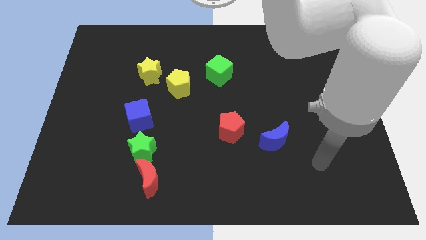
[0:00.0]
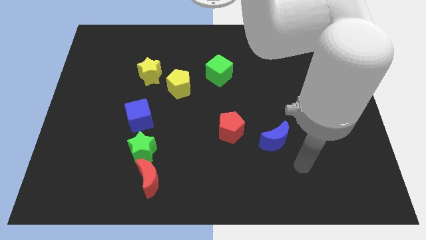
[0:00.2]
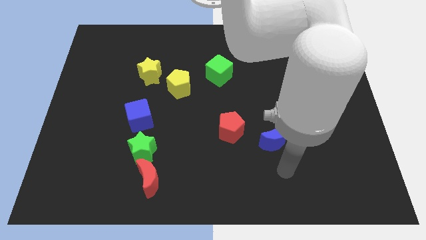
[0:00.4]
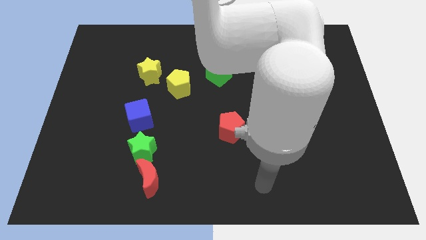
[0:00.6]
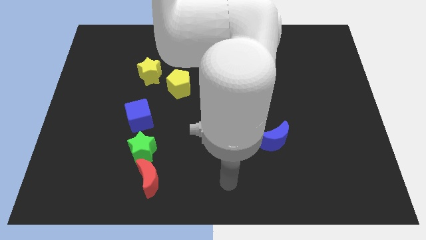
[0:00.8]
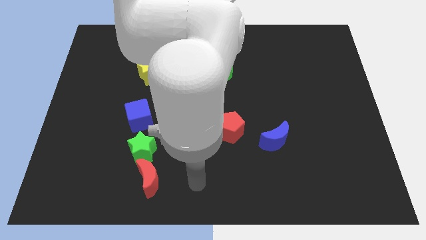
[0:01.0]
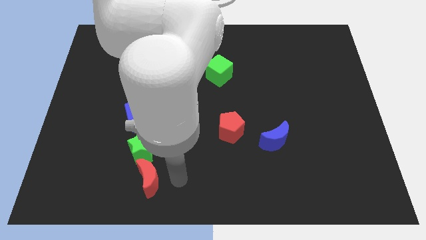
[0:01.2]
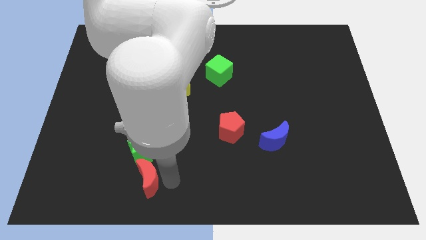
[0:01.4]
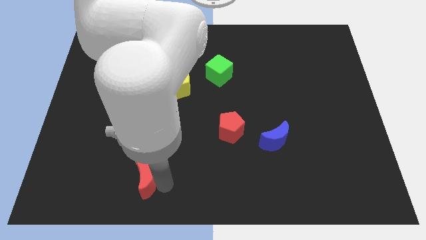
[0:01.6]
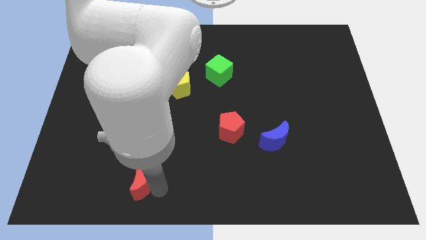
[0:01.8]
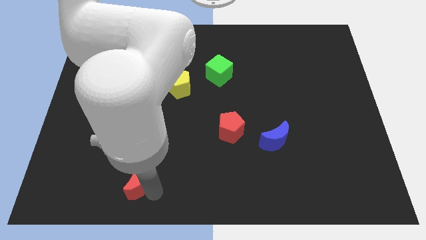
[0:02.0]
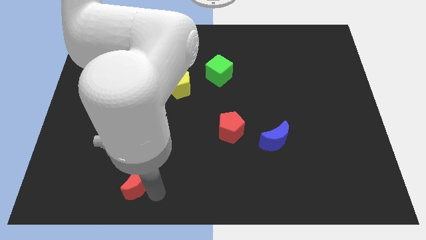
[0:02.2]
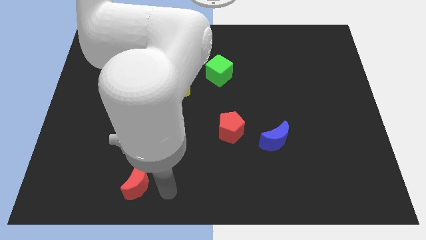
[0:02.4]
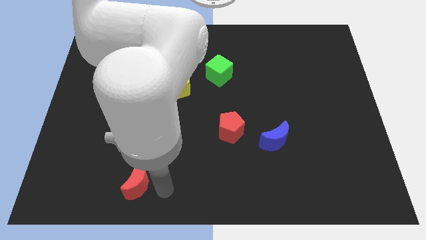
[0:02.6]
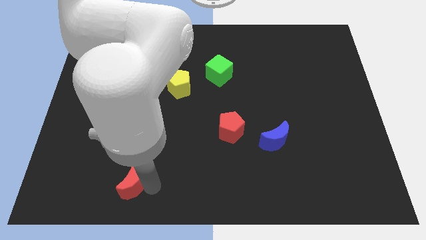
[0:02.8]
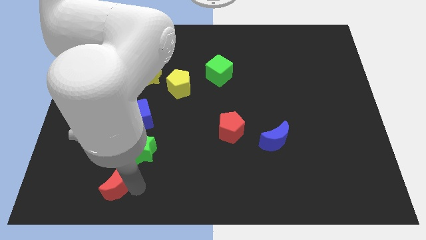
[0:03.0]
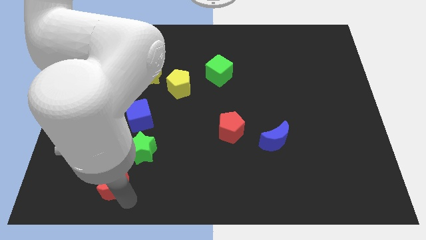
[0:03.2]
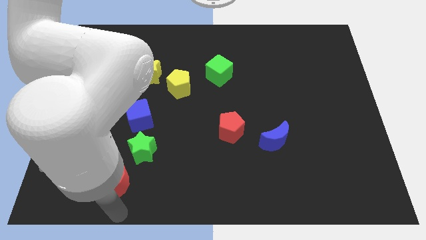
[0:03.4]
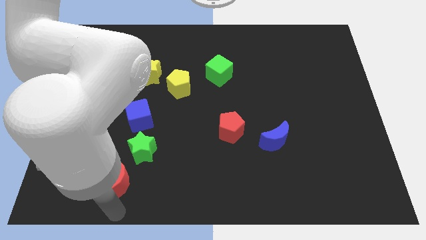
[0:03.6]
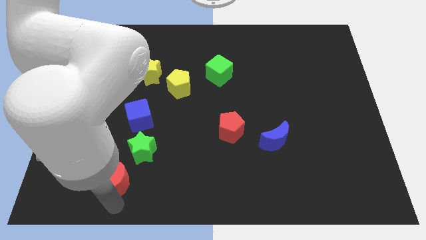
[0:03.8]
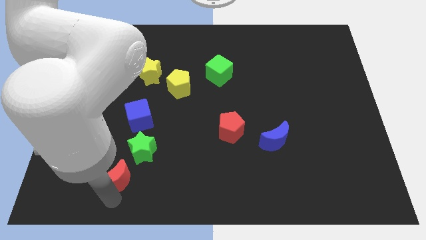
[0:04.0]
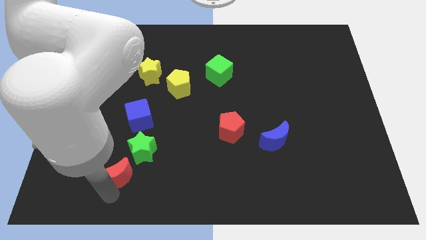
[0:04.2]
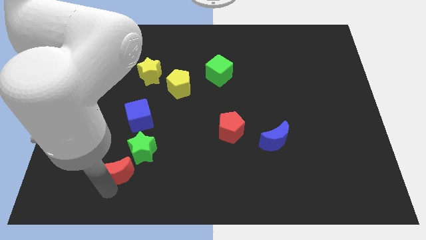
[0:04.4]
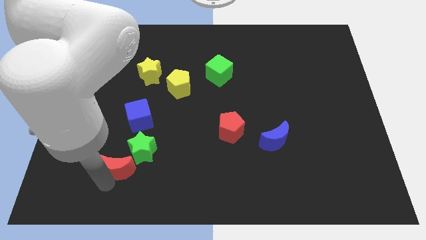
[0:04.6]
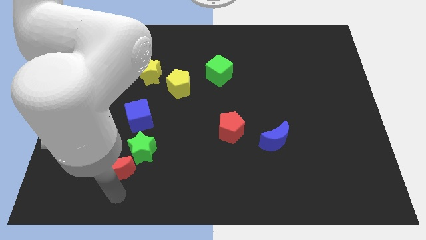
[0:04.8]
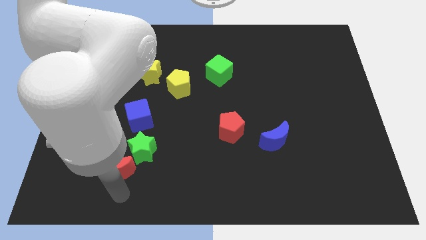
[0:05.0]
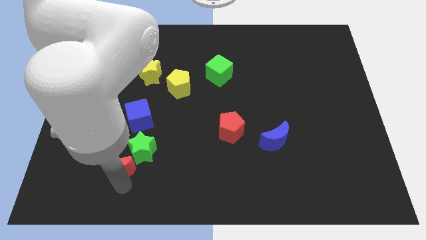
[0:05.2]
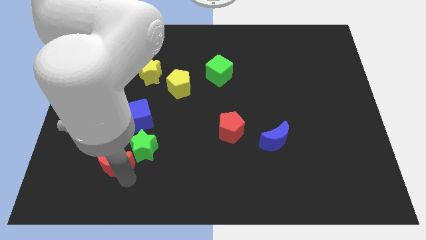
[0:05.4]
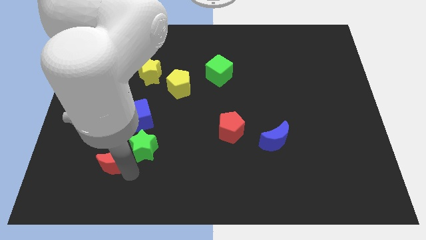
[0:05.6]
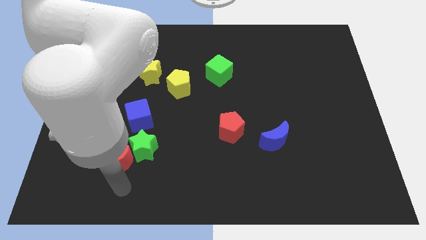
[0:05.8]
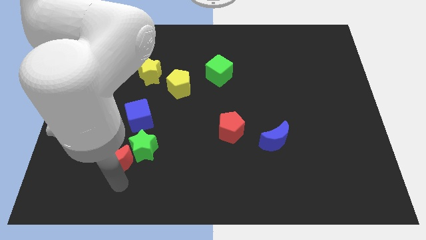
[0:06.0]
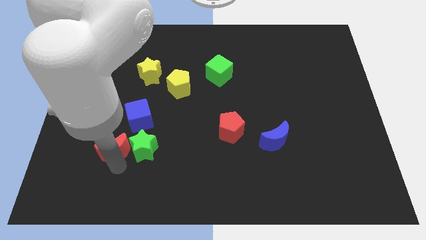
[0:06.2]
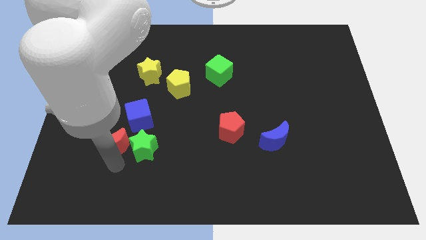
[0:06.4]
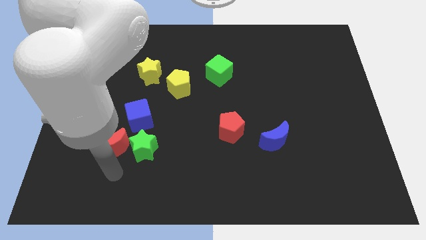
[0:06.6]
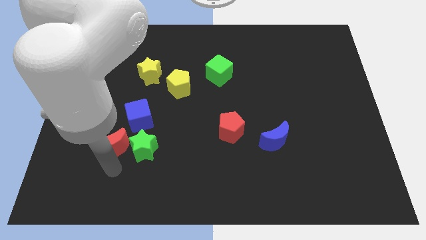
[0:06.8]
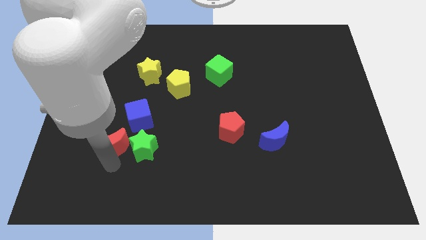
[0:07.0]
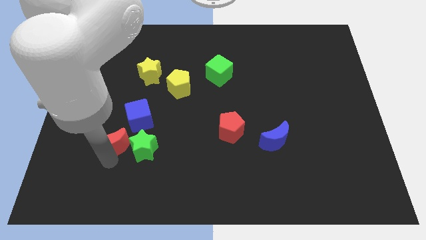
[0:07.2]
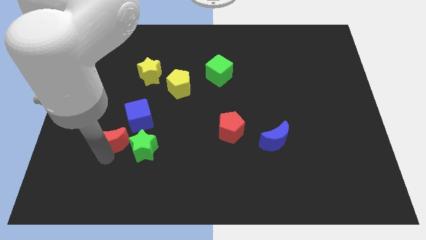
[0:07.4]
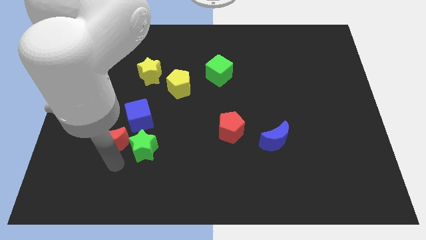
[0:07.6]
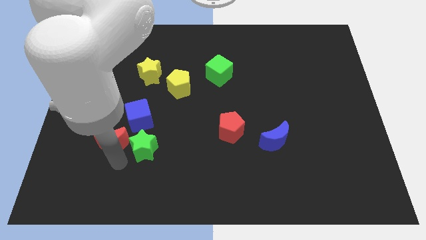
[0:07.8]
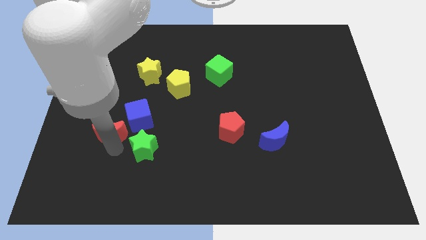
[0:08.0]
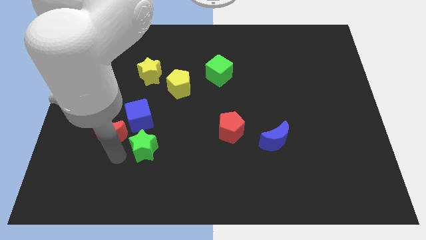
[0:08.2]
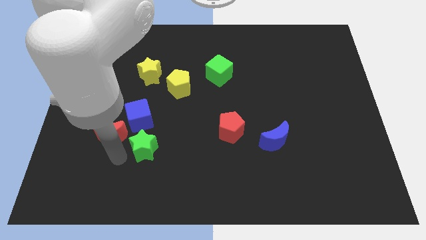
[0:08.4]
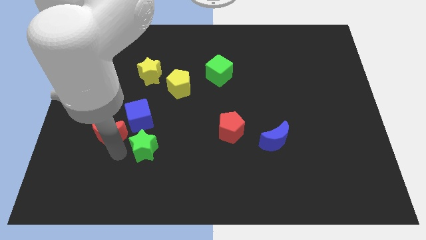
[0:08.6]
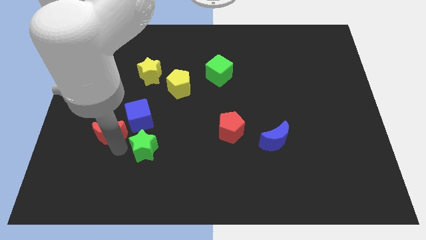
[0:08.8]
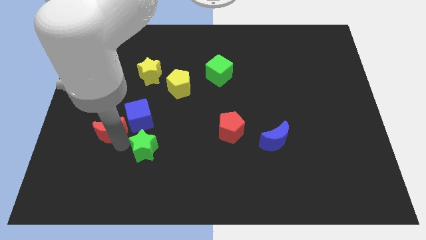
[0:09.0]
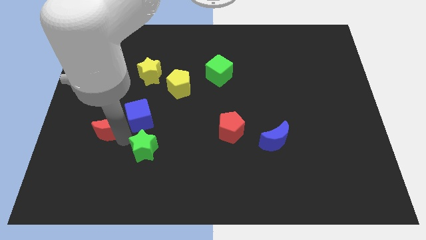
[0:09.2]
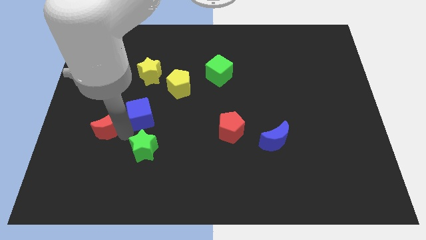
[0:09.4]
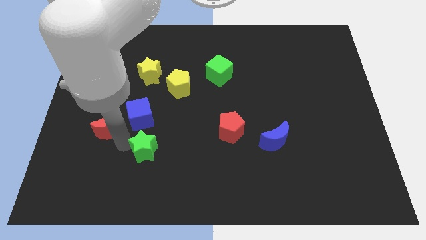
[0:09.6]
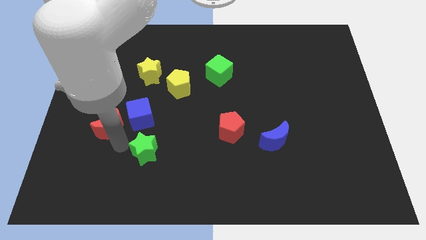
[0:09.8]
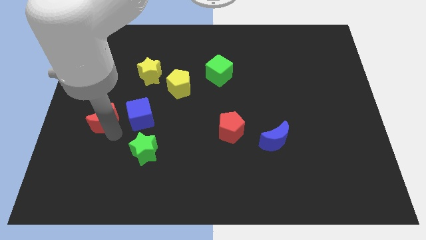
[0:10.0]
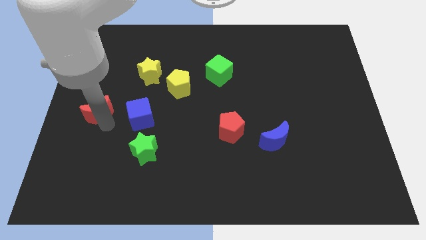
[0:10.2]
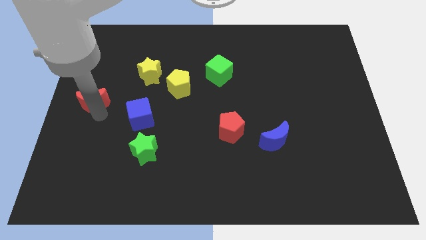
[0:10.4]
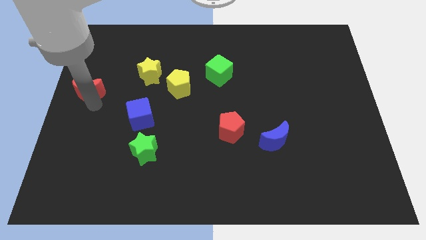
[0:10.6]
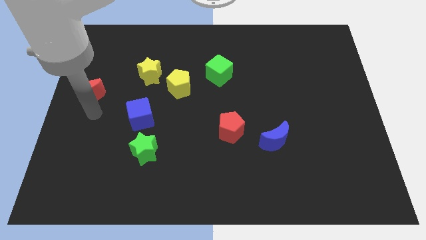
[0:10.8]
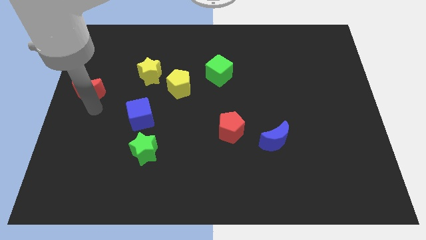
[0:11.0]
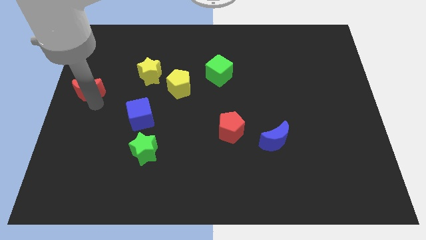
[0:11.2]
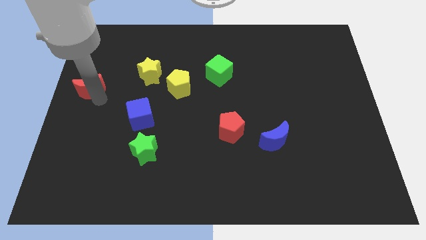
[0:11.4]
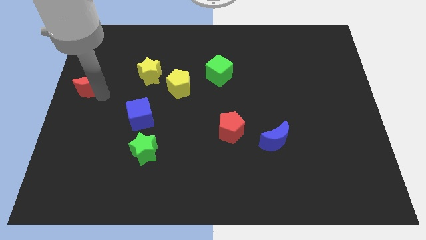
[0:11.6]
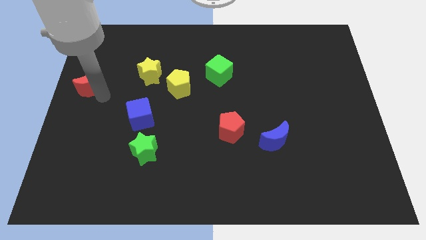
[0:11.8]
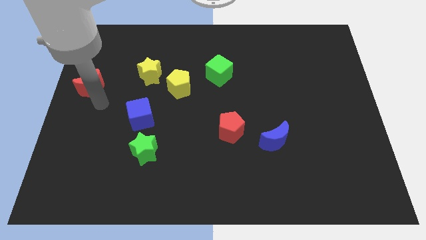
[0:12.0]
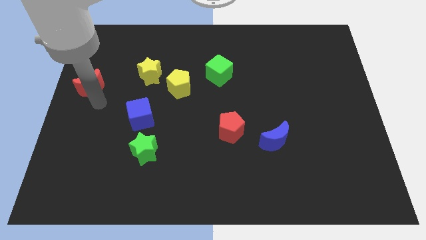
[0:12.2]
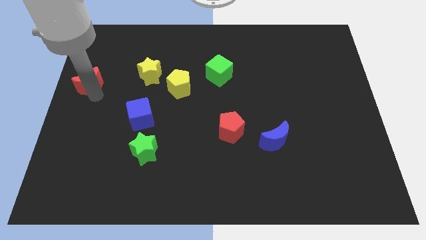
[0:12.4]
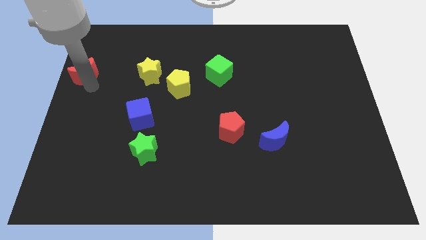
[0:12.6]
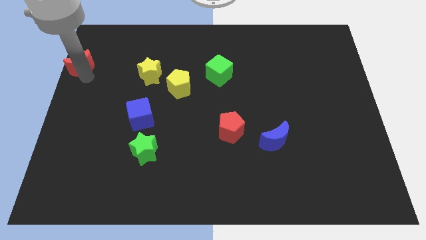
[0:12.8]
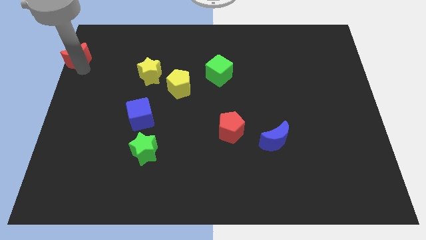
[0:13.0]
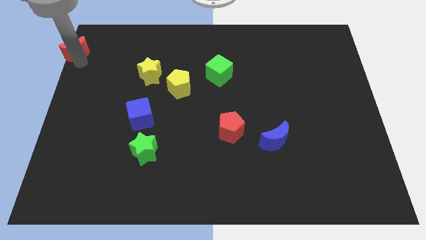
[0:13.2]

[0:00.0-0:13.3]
move the red moon to the top left corner

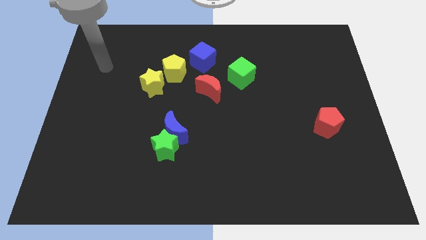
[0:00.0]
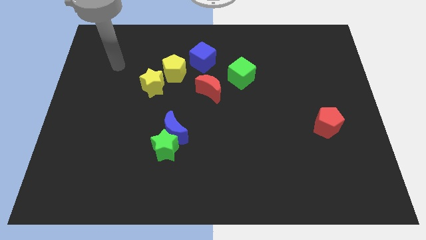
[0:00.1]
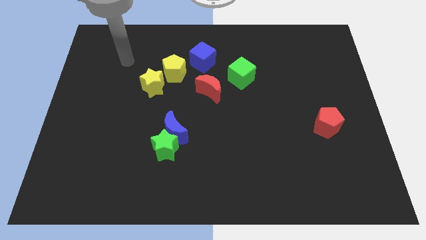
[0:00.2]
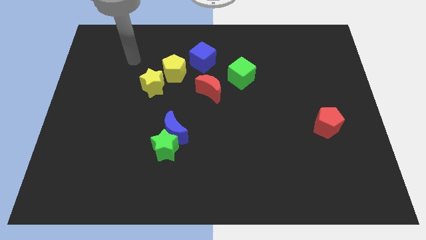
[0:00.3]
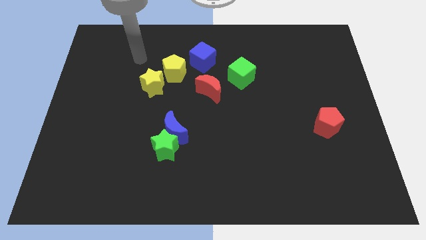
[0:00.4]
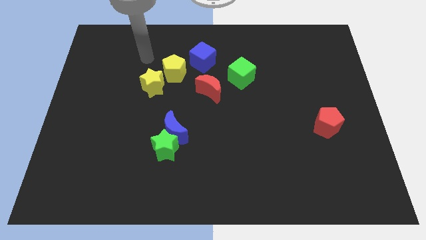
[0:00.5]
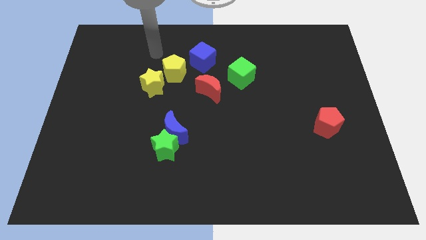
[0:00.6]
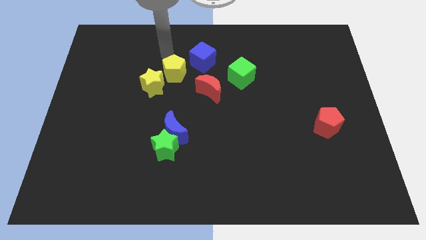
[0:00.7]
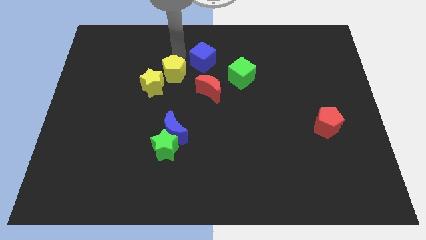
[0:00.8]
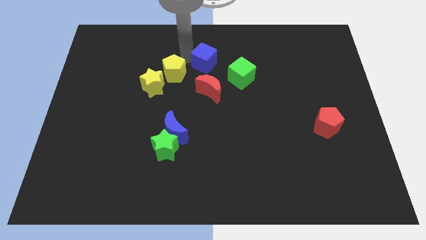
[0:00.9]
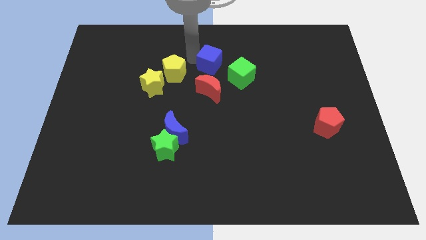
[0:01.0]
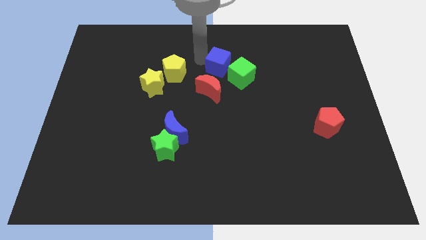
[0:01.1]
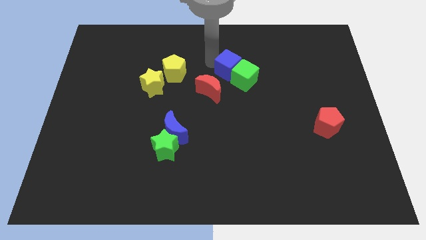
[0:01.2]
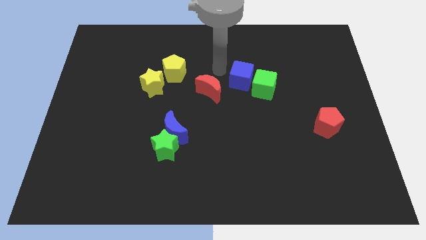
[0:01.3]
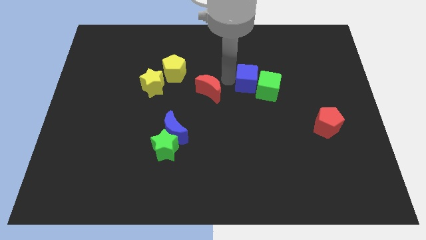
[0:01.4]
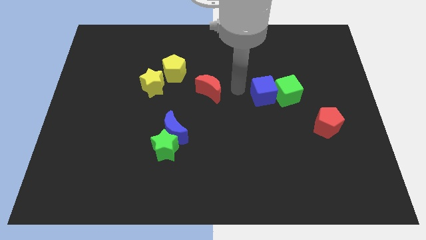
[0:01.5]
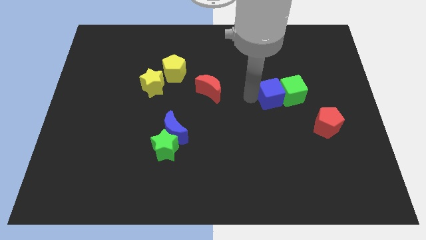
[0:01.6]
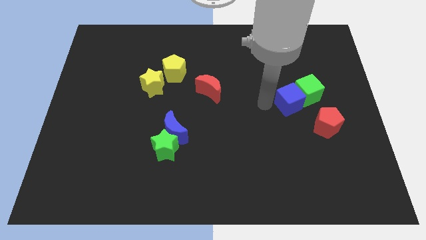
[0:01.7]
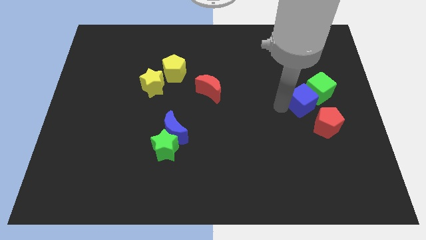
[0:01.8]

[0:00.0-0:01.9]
put the green cube to the right side of the board
